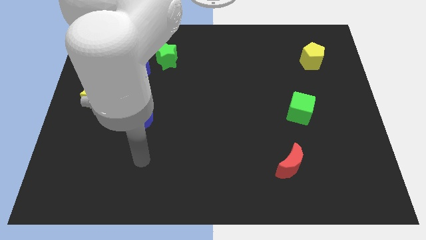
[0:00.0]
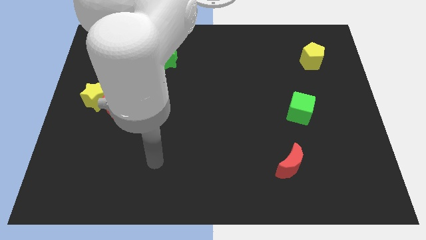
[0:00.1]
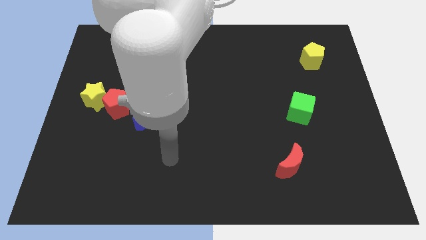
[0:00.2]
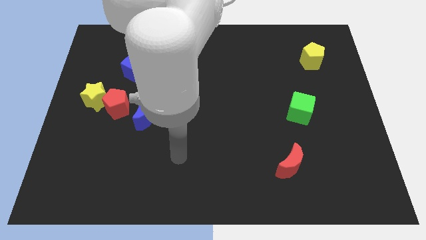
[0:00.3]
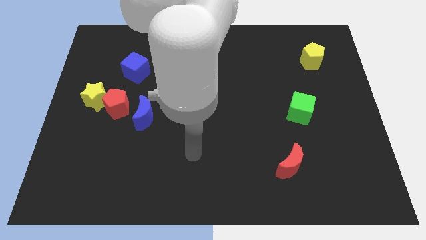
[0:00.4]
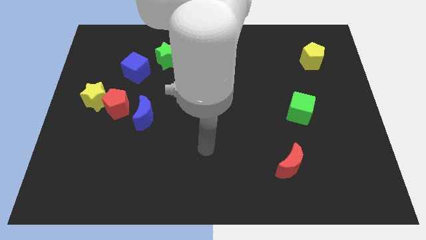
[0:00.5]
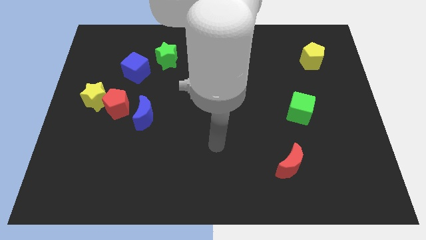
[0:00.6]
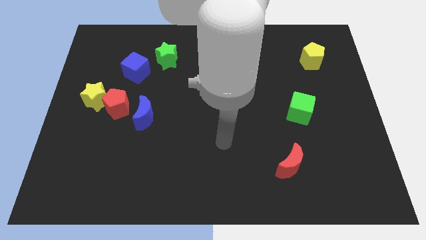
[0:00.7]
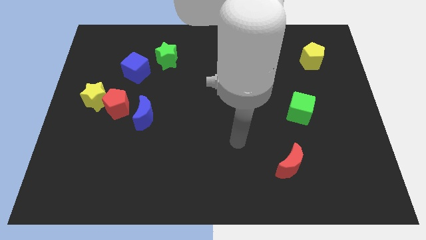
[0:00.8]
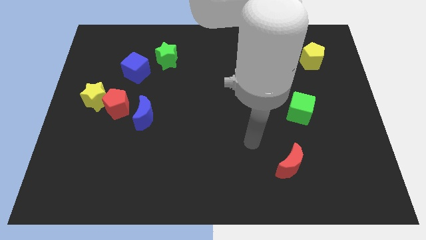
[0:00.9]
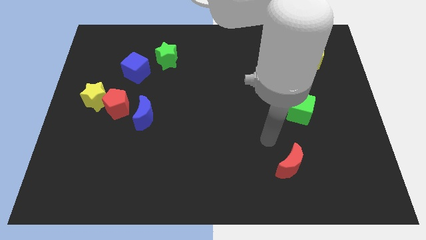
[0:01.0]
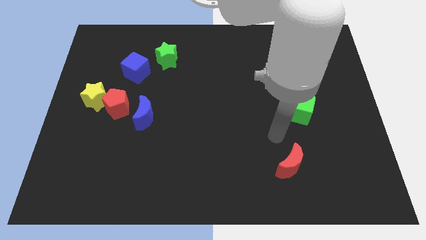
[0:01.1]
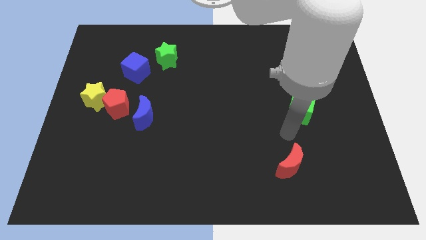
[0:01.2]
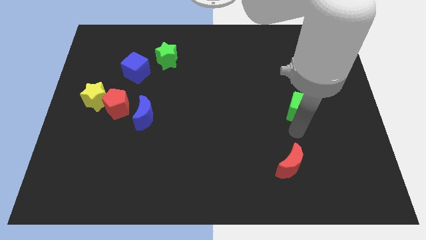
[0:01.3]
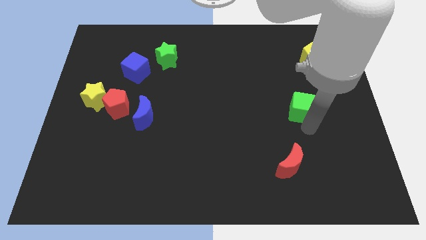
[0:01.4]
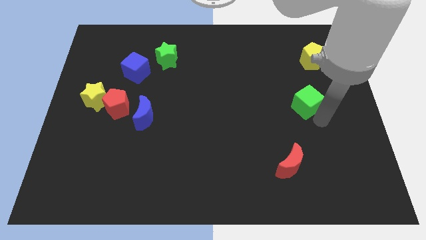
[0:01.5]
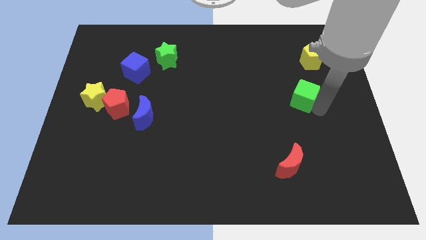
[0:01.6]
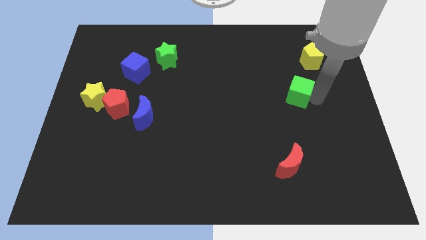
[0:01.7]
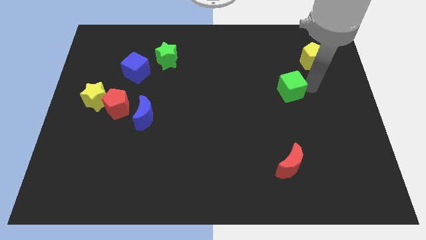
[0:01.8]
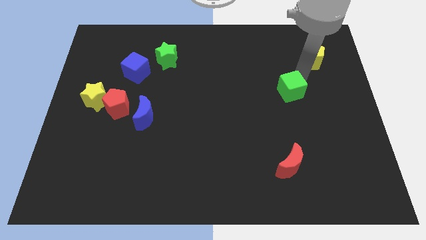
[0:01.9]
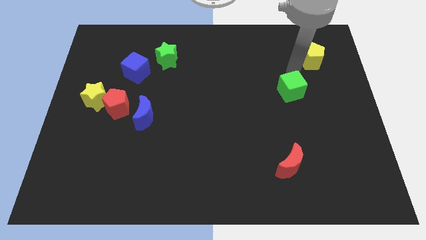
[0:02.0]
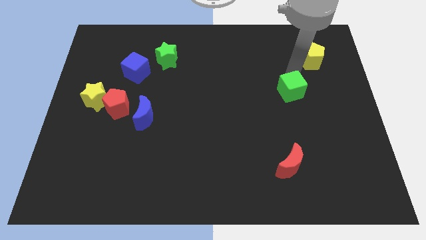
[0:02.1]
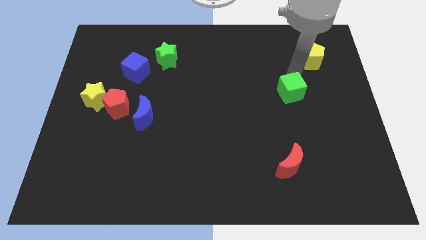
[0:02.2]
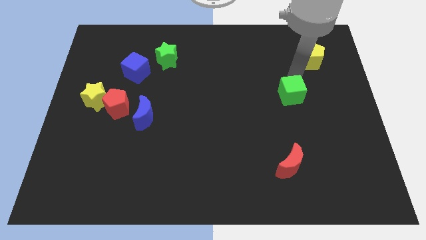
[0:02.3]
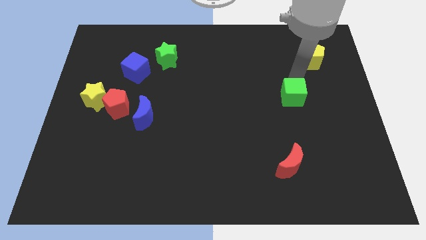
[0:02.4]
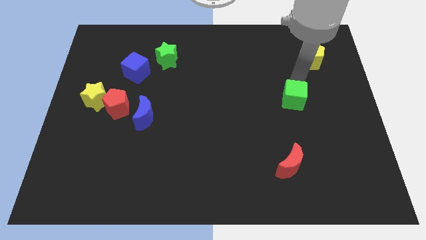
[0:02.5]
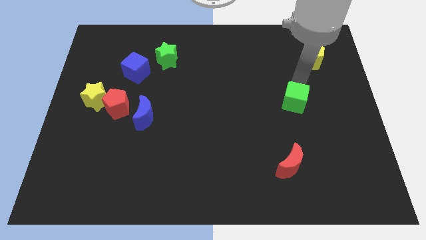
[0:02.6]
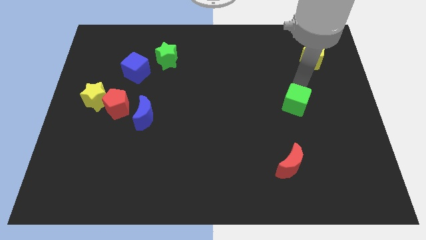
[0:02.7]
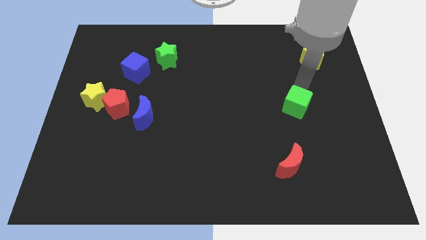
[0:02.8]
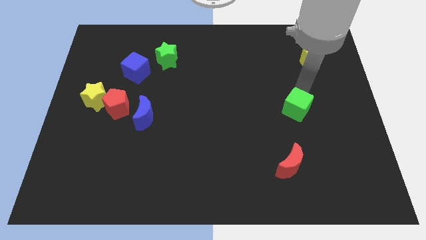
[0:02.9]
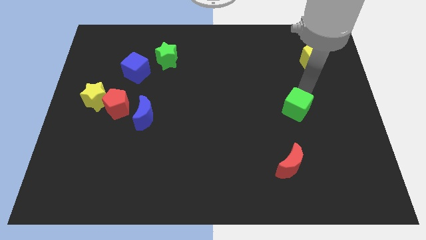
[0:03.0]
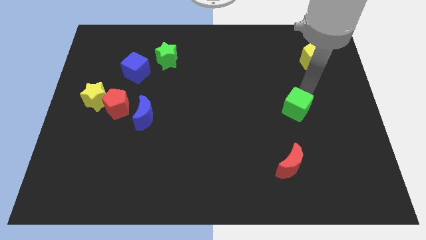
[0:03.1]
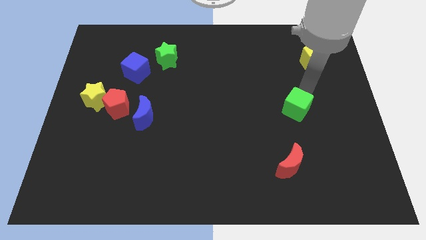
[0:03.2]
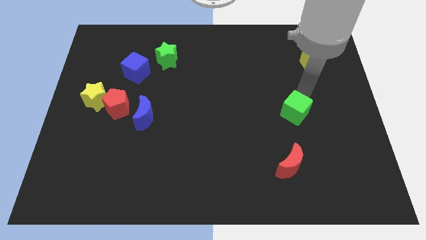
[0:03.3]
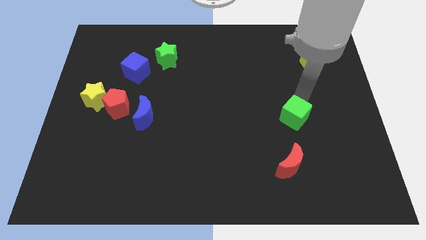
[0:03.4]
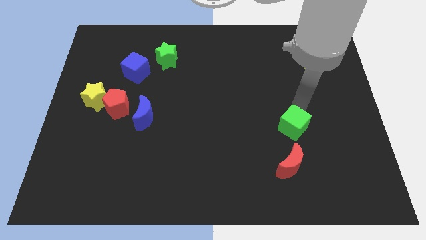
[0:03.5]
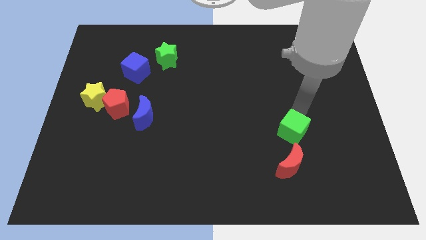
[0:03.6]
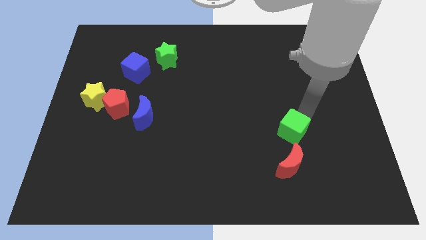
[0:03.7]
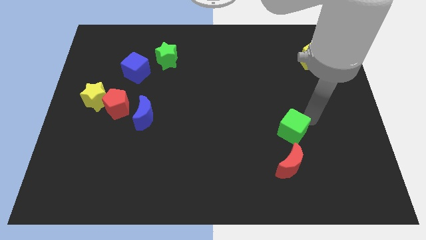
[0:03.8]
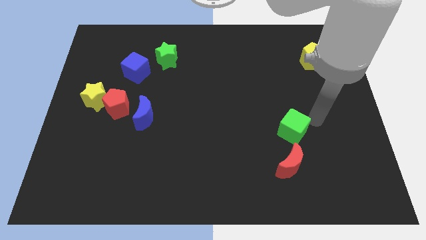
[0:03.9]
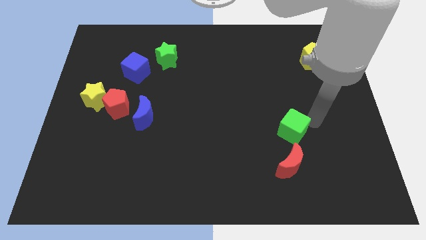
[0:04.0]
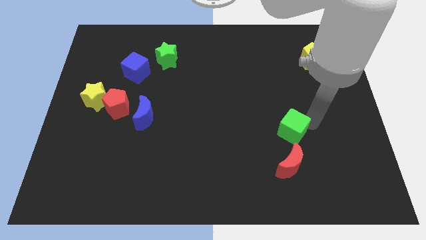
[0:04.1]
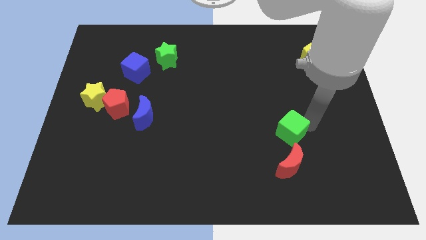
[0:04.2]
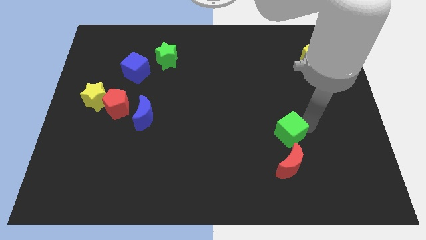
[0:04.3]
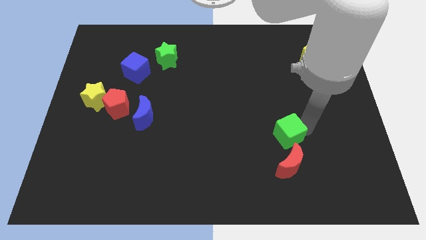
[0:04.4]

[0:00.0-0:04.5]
slide the green cube a little bit downwards and left

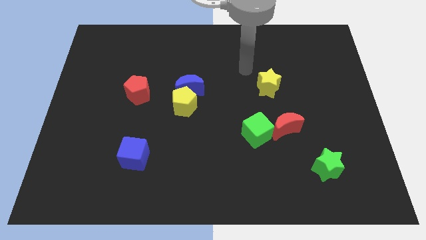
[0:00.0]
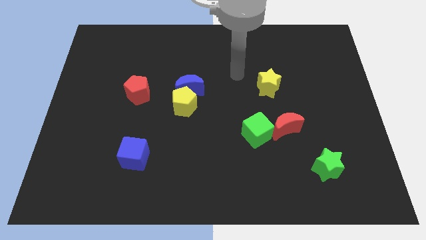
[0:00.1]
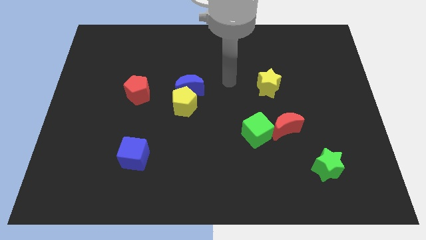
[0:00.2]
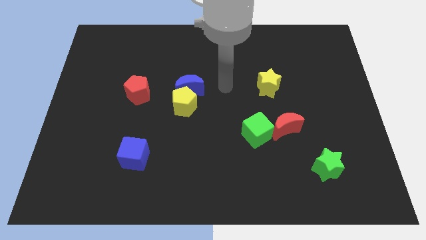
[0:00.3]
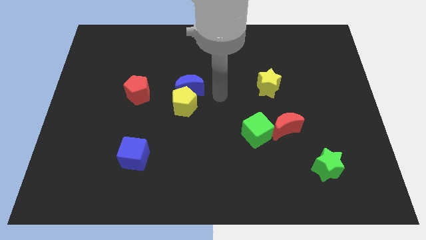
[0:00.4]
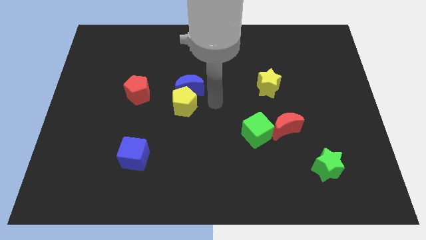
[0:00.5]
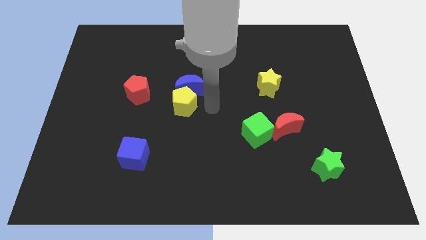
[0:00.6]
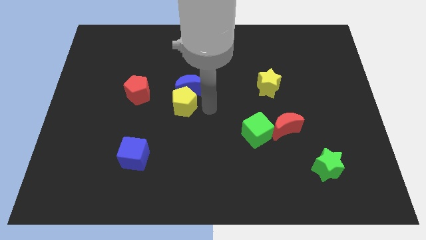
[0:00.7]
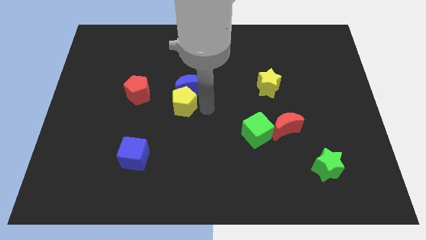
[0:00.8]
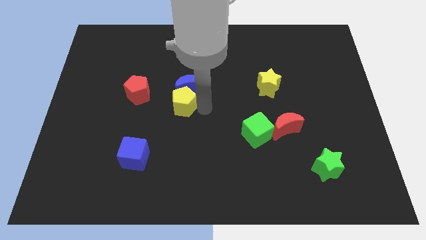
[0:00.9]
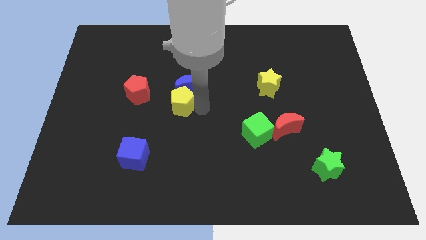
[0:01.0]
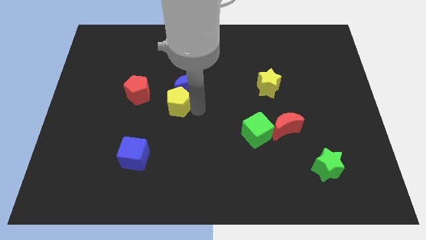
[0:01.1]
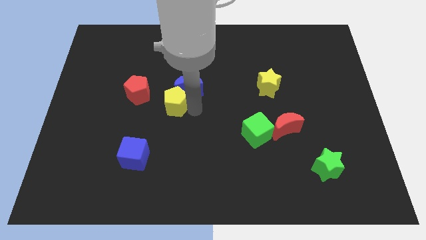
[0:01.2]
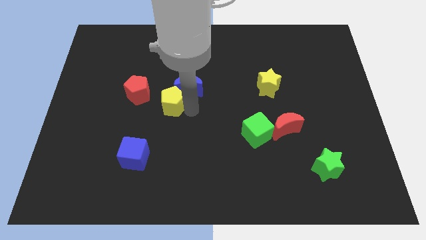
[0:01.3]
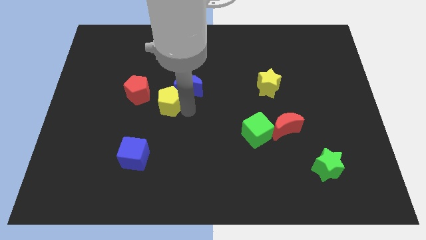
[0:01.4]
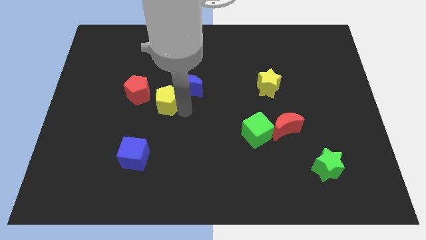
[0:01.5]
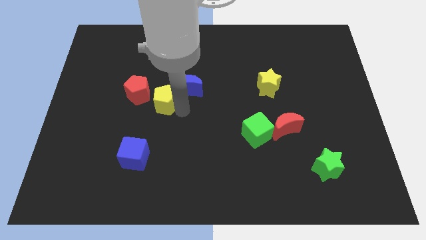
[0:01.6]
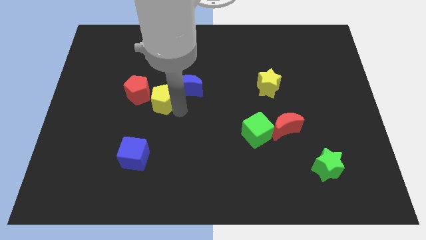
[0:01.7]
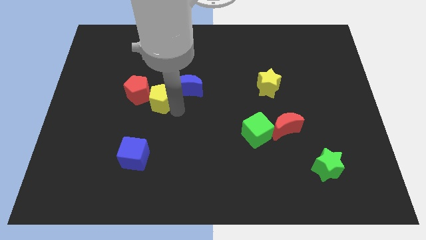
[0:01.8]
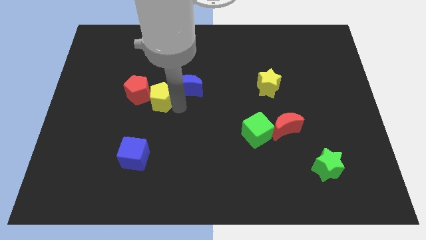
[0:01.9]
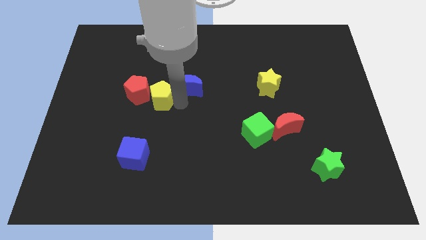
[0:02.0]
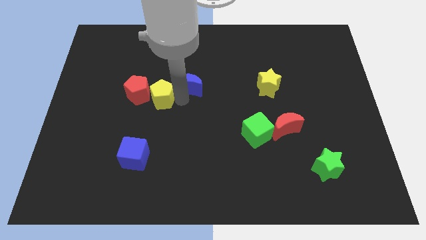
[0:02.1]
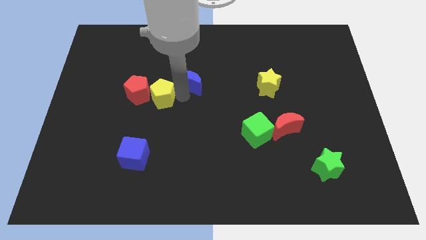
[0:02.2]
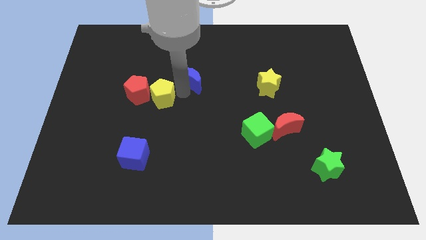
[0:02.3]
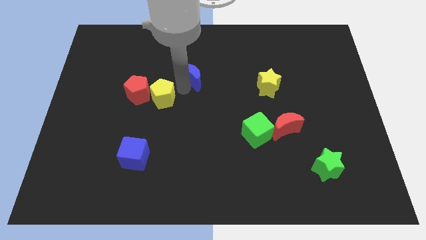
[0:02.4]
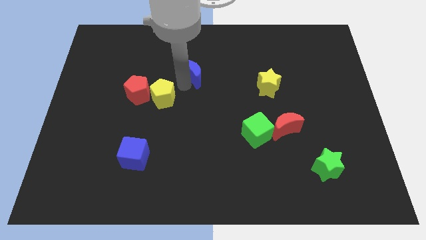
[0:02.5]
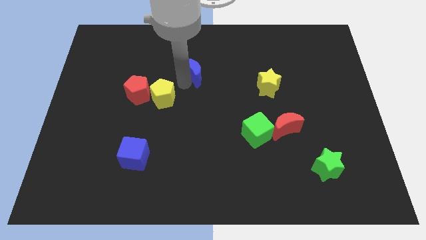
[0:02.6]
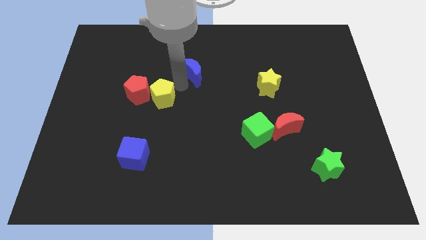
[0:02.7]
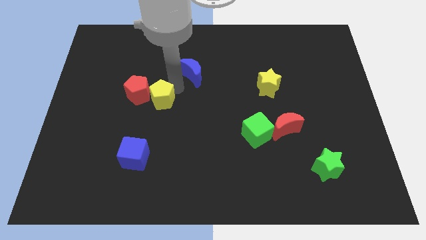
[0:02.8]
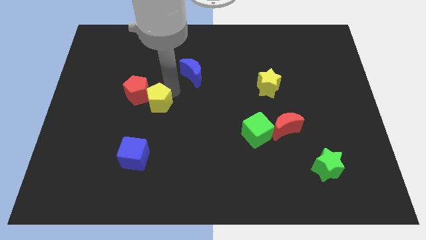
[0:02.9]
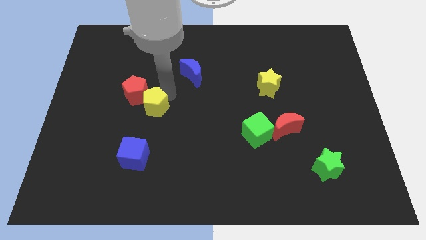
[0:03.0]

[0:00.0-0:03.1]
push the yellow pentagon to the left a little

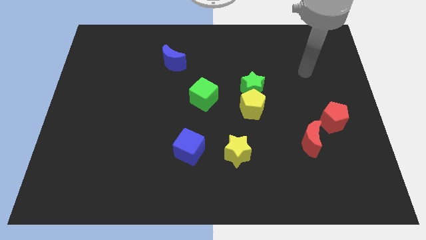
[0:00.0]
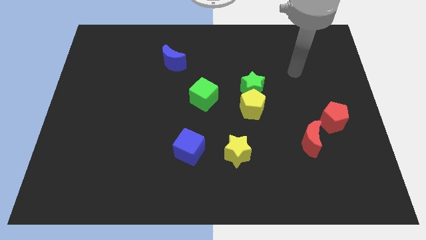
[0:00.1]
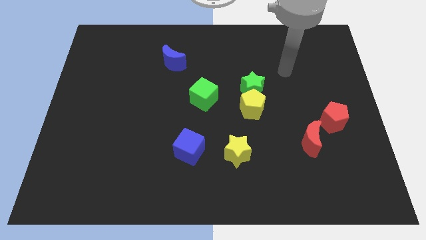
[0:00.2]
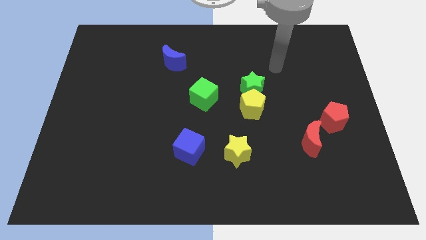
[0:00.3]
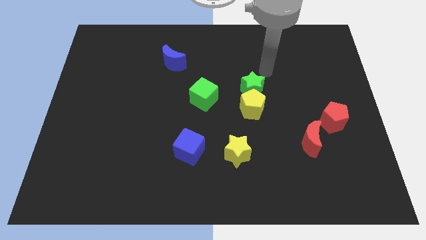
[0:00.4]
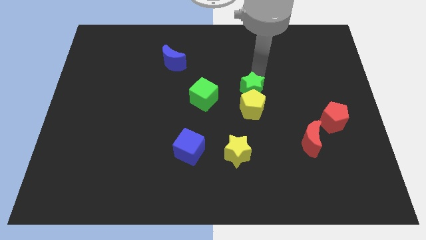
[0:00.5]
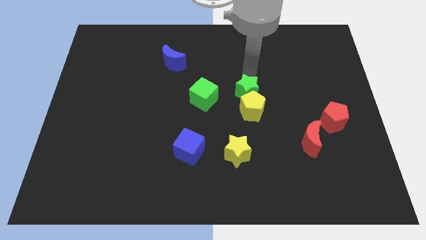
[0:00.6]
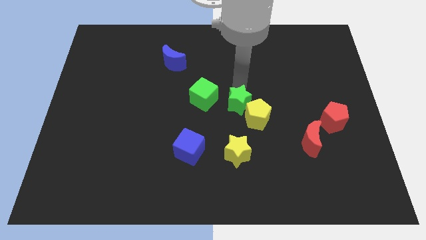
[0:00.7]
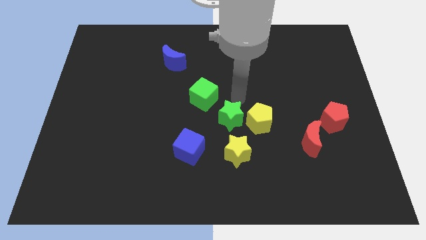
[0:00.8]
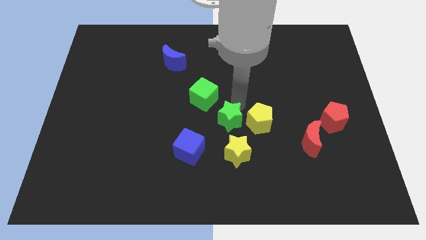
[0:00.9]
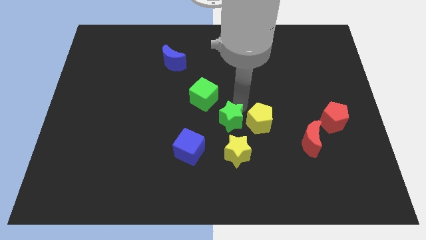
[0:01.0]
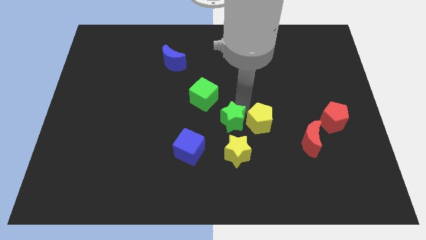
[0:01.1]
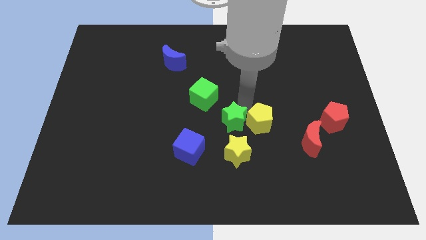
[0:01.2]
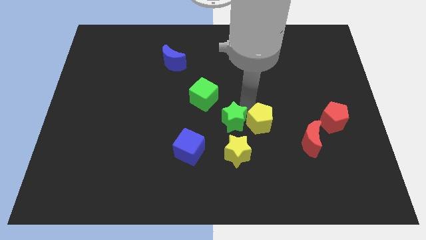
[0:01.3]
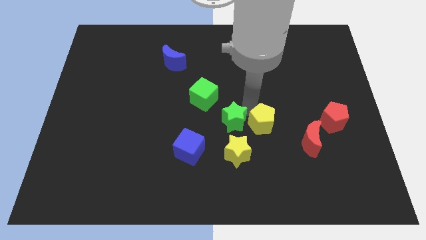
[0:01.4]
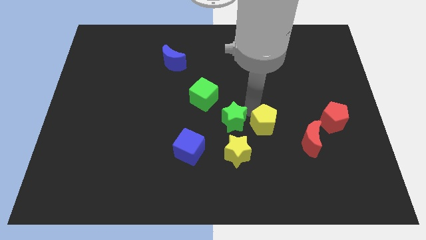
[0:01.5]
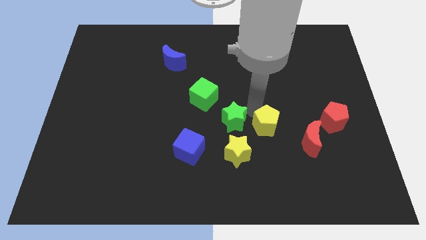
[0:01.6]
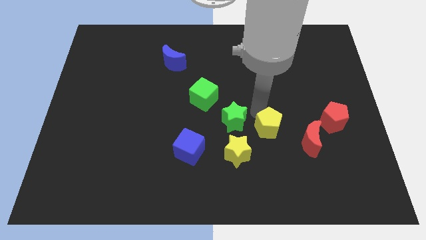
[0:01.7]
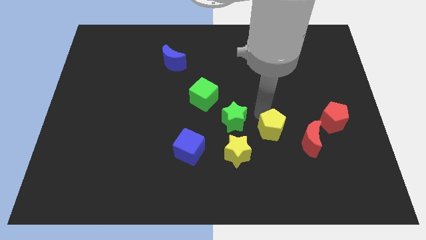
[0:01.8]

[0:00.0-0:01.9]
push the yellow pentagon slightly downwards and right
